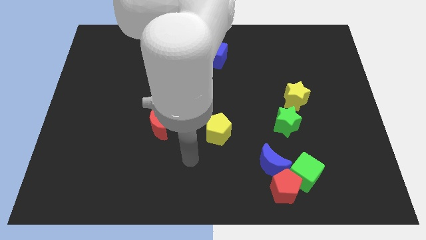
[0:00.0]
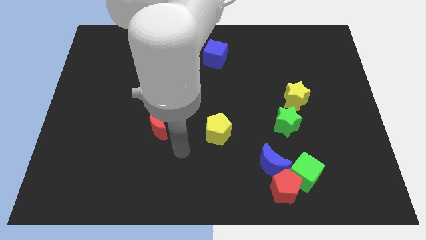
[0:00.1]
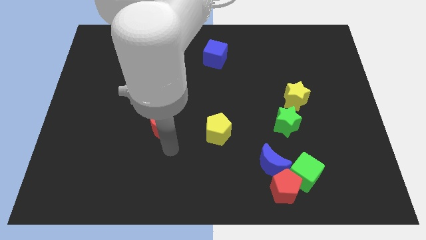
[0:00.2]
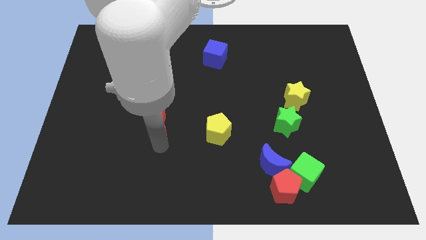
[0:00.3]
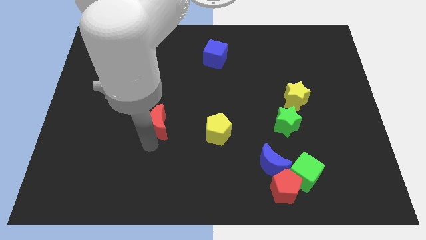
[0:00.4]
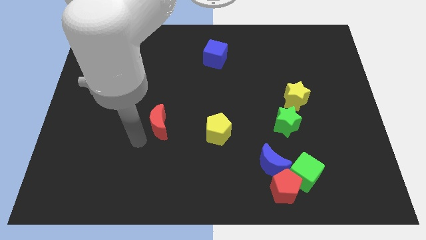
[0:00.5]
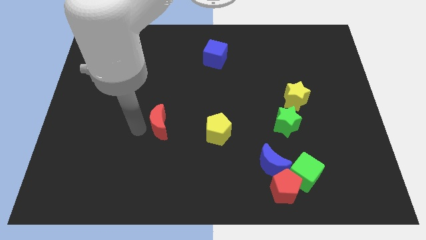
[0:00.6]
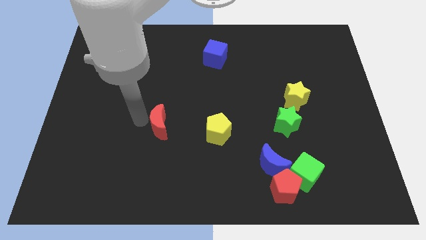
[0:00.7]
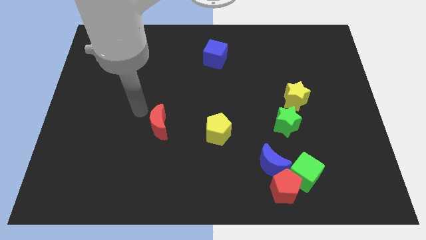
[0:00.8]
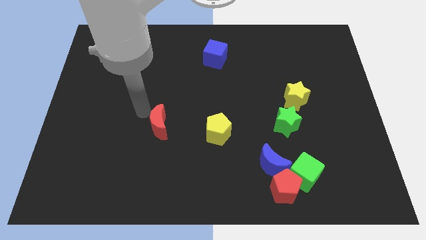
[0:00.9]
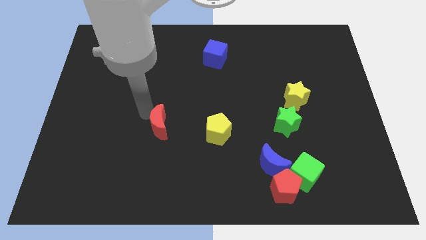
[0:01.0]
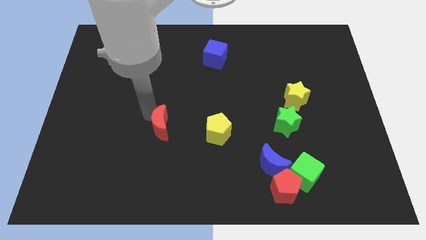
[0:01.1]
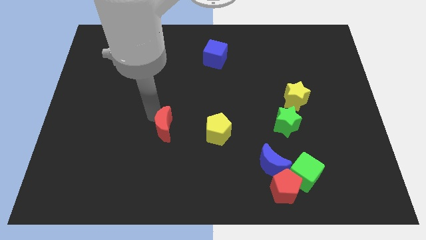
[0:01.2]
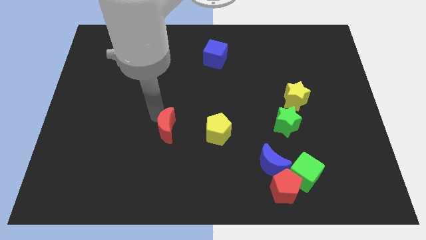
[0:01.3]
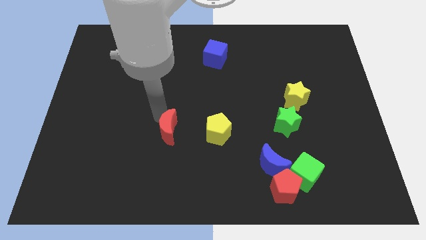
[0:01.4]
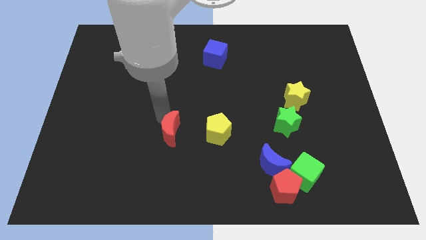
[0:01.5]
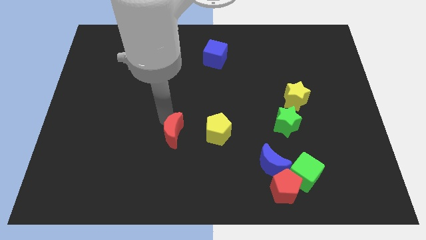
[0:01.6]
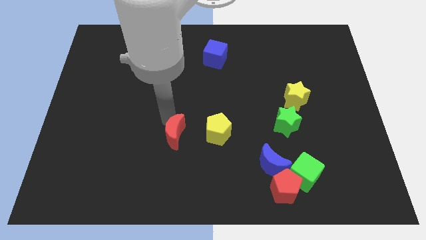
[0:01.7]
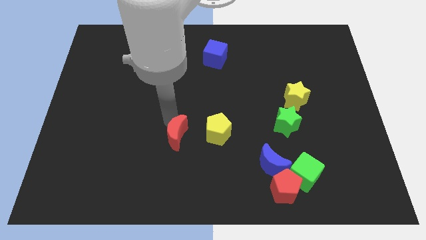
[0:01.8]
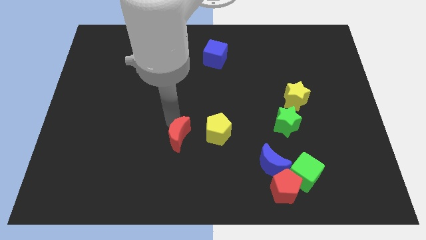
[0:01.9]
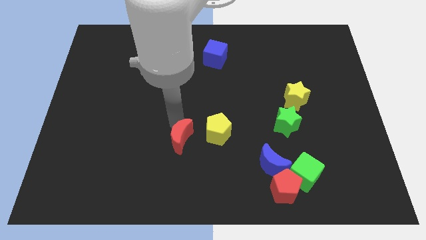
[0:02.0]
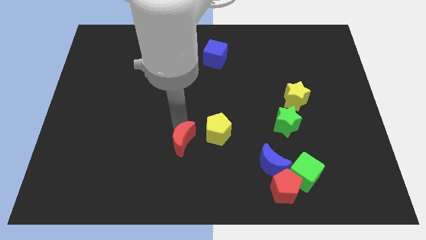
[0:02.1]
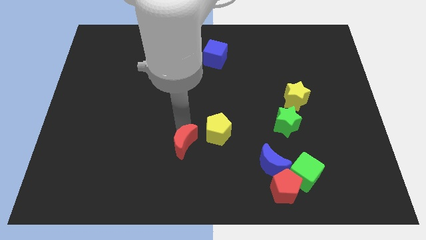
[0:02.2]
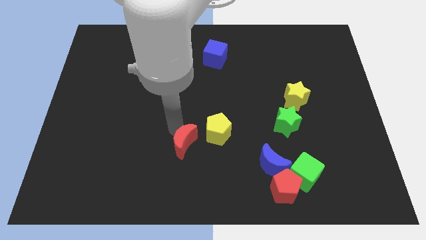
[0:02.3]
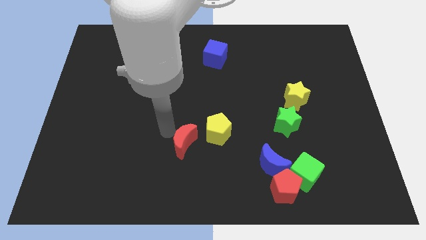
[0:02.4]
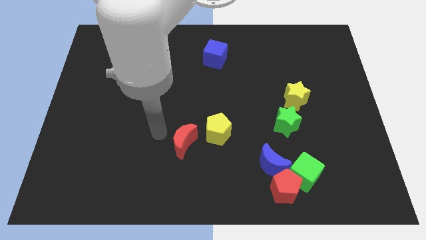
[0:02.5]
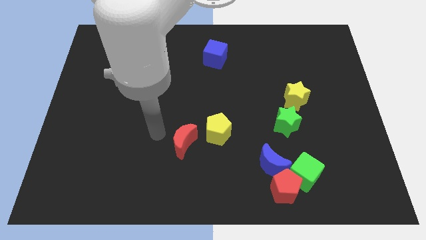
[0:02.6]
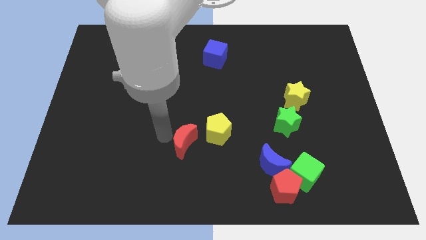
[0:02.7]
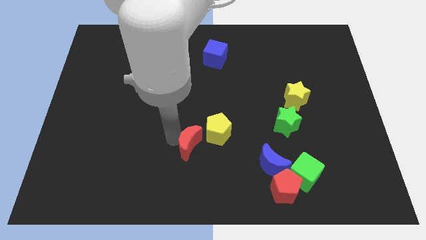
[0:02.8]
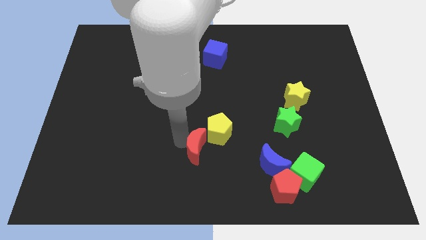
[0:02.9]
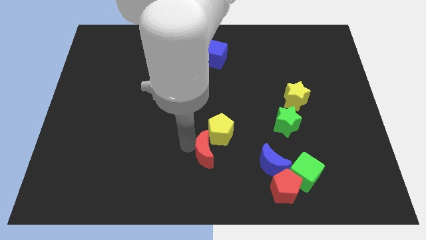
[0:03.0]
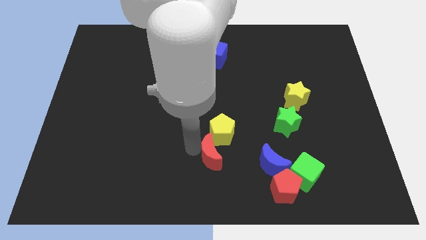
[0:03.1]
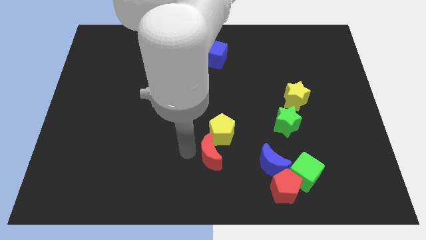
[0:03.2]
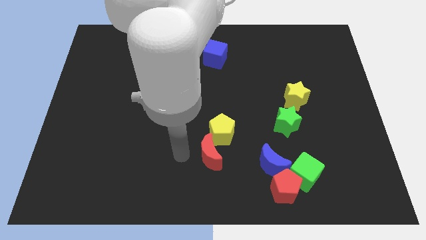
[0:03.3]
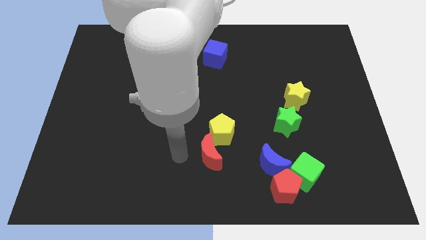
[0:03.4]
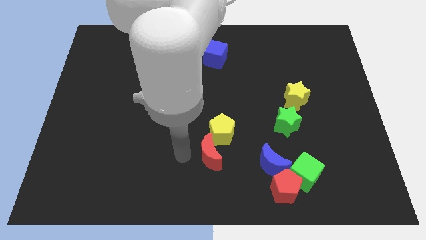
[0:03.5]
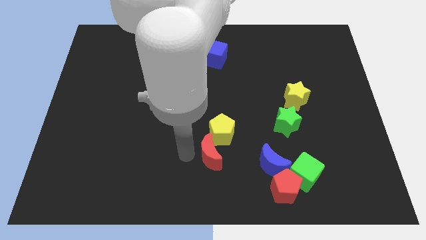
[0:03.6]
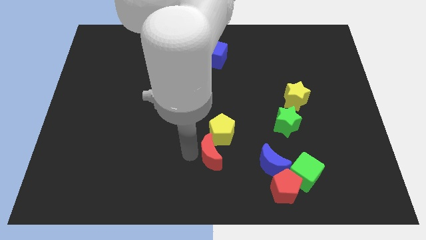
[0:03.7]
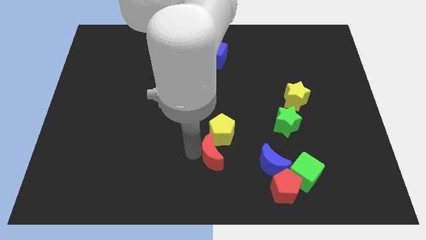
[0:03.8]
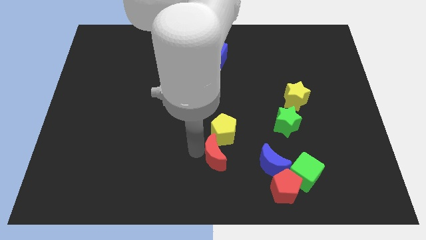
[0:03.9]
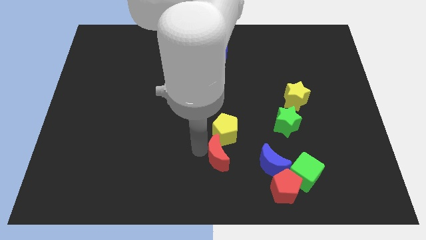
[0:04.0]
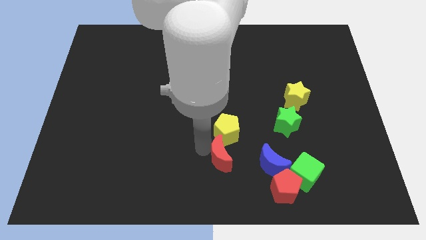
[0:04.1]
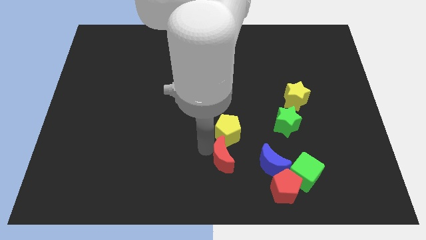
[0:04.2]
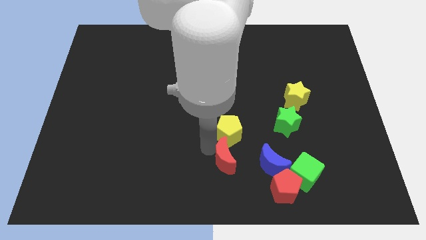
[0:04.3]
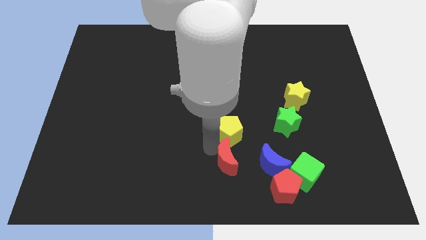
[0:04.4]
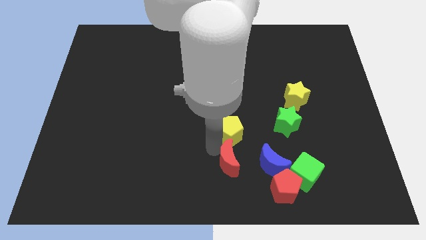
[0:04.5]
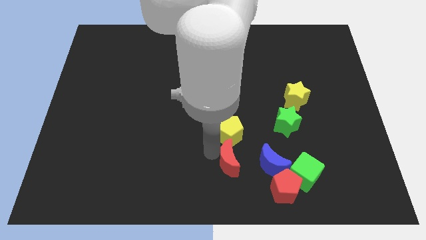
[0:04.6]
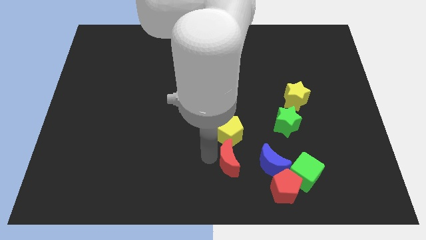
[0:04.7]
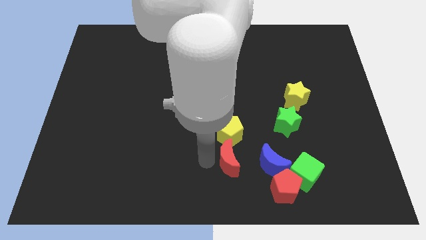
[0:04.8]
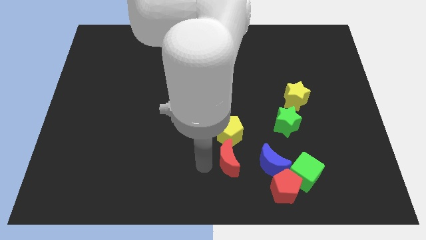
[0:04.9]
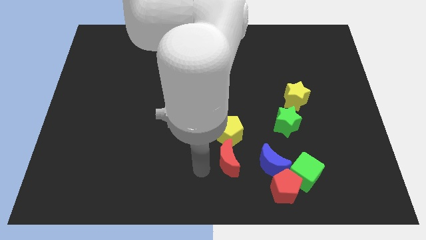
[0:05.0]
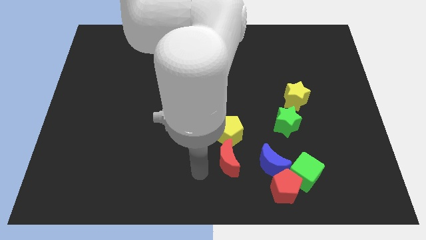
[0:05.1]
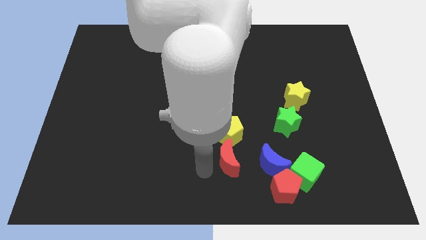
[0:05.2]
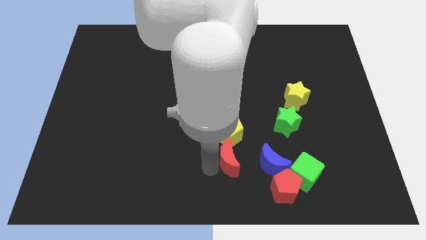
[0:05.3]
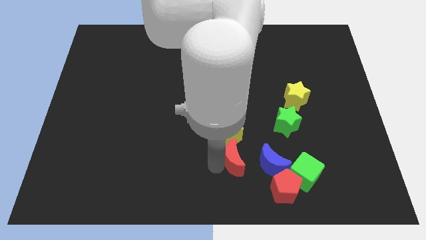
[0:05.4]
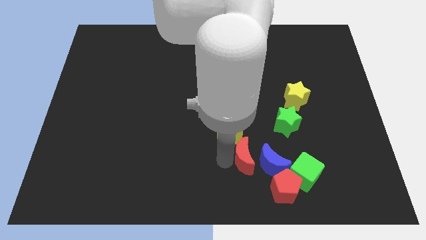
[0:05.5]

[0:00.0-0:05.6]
slide the red moon close to the blue moon

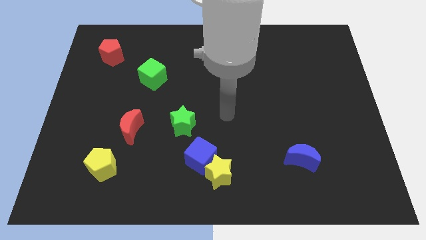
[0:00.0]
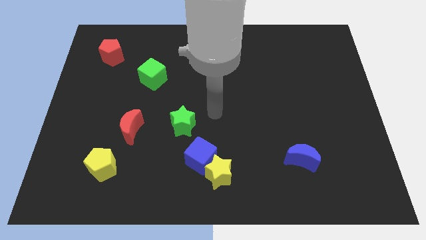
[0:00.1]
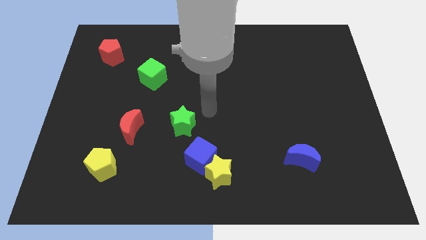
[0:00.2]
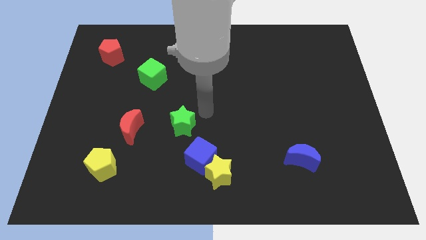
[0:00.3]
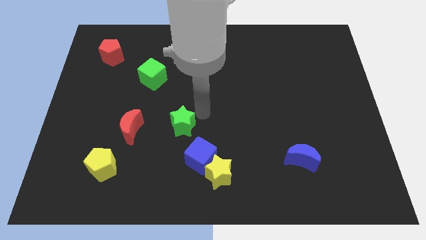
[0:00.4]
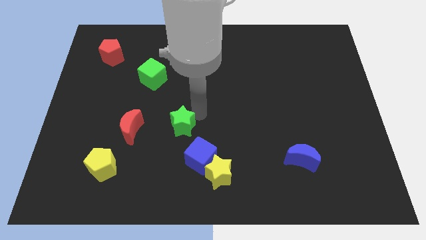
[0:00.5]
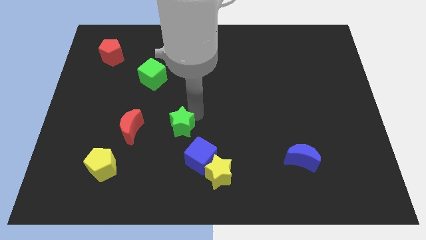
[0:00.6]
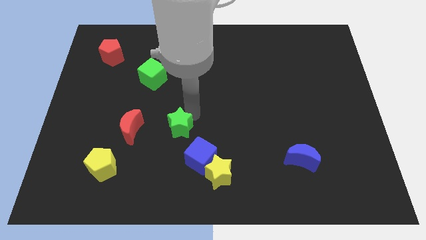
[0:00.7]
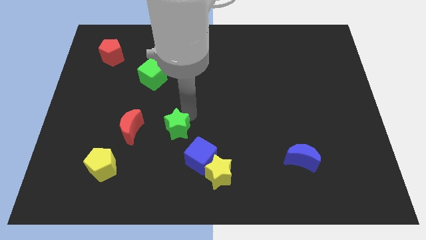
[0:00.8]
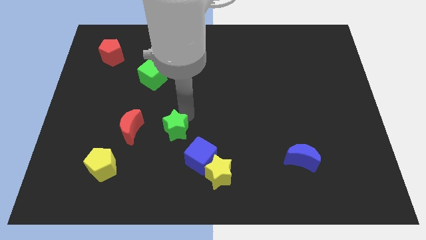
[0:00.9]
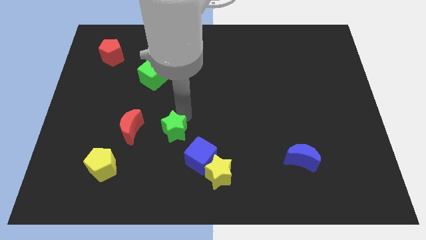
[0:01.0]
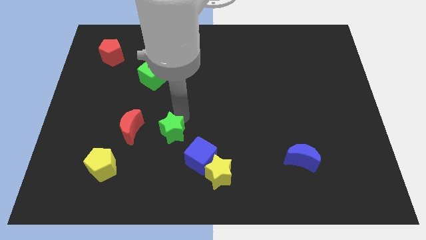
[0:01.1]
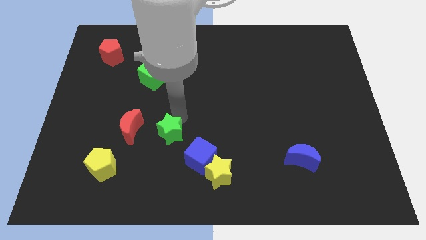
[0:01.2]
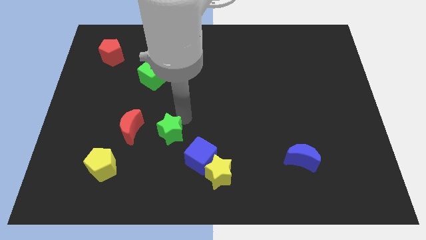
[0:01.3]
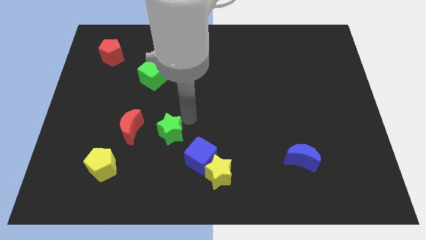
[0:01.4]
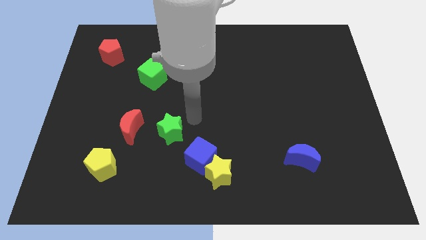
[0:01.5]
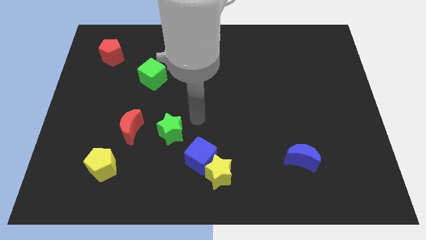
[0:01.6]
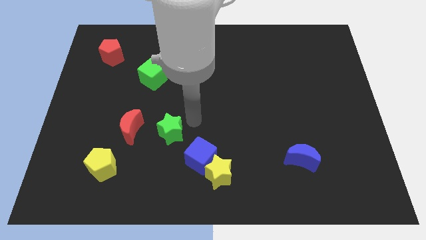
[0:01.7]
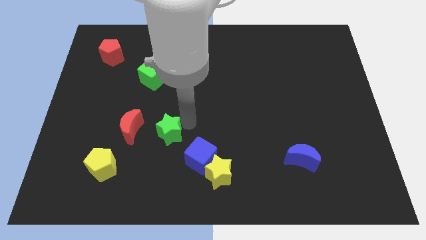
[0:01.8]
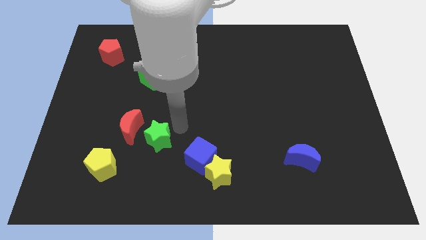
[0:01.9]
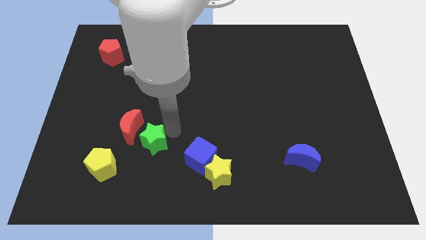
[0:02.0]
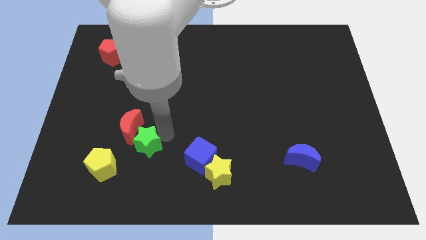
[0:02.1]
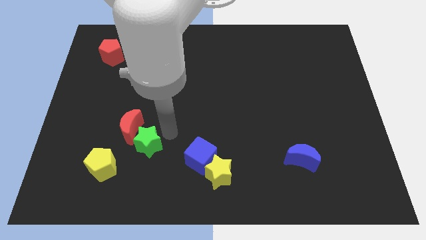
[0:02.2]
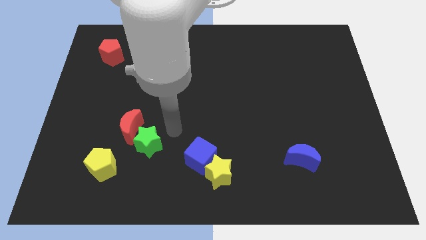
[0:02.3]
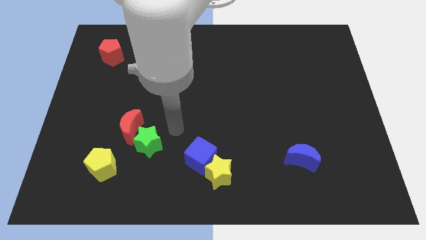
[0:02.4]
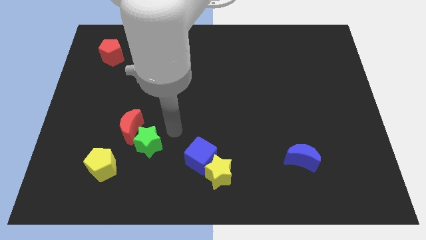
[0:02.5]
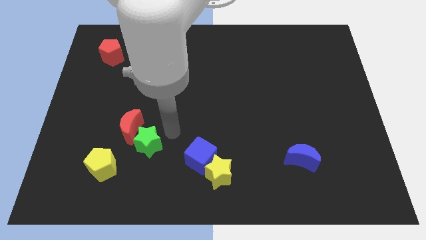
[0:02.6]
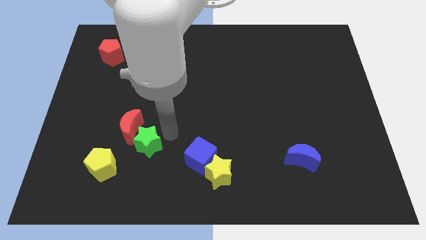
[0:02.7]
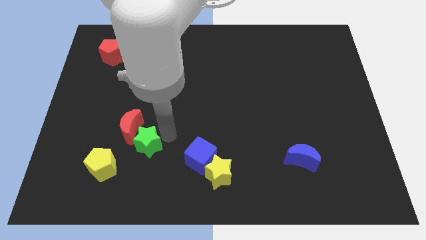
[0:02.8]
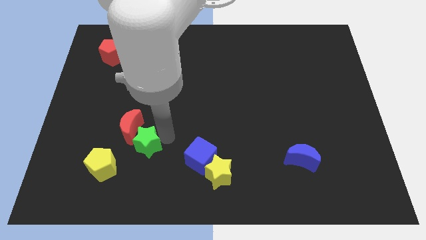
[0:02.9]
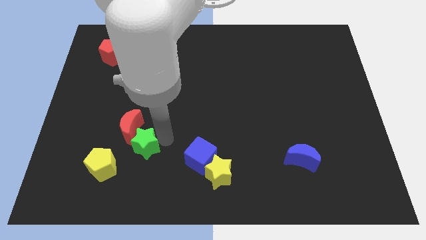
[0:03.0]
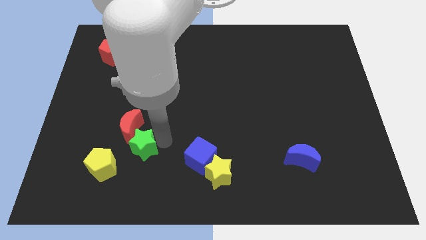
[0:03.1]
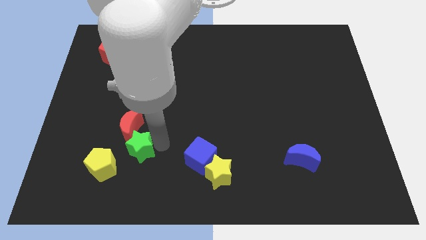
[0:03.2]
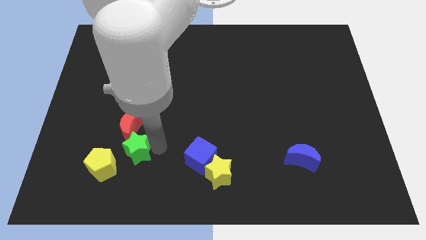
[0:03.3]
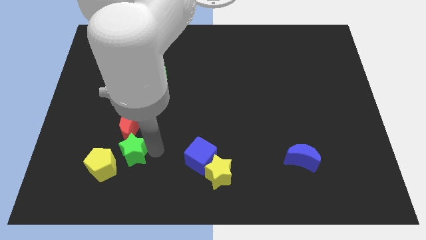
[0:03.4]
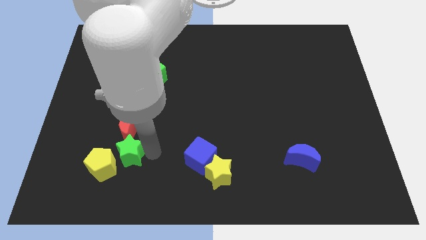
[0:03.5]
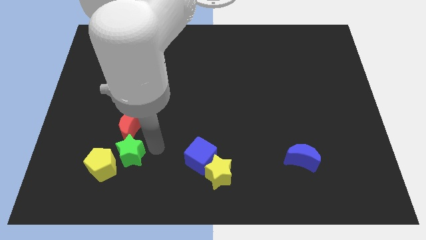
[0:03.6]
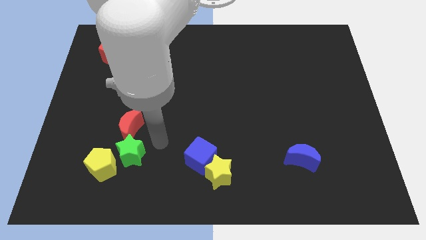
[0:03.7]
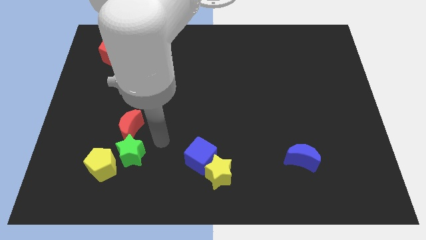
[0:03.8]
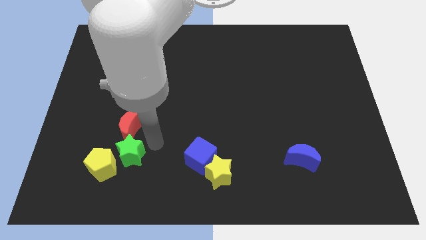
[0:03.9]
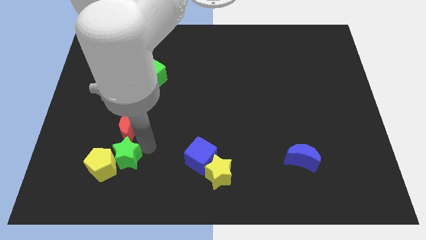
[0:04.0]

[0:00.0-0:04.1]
push the green star to the yellow pentagon
